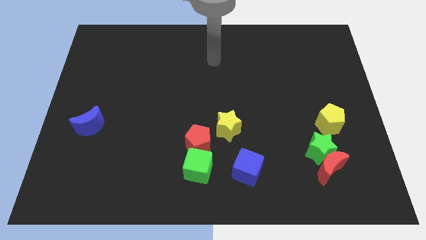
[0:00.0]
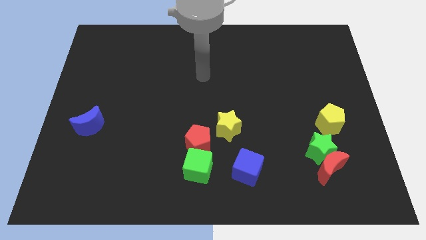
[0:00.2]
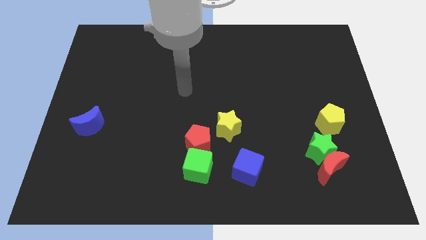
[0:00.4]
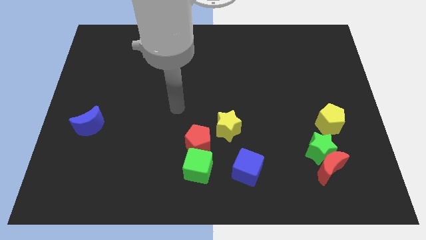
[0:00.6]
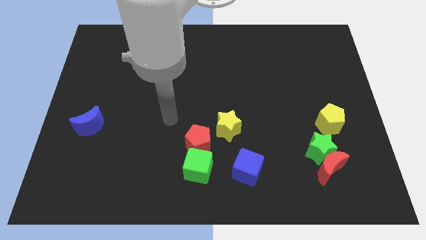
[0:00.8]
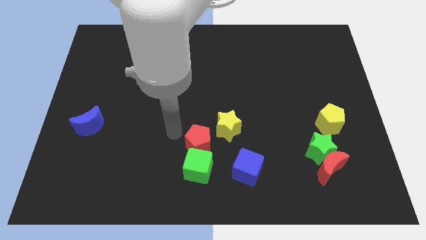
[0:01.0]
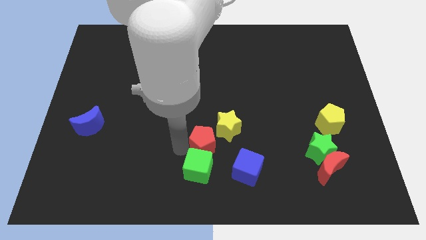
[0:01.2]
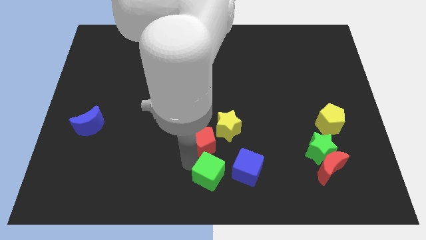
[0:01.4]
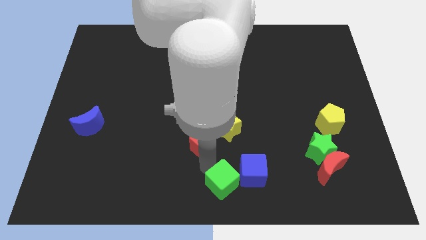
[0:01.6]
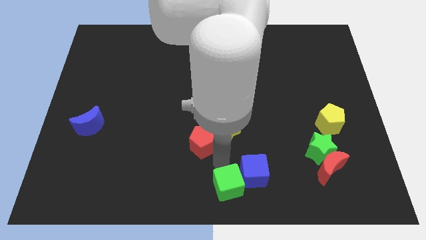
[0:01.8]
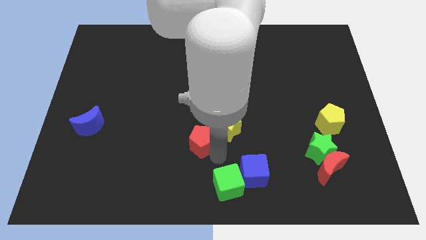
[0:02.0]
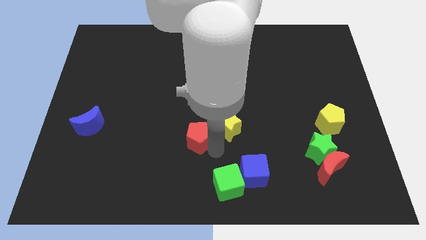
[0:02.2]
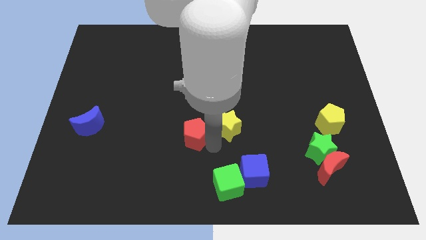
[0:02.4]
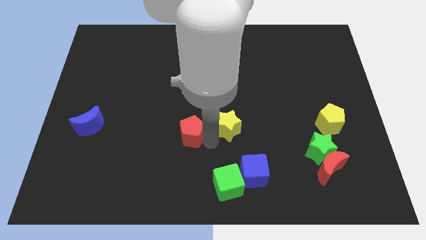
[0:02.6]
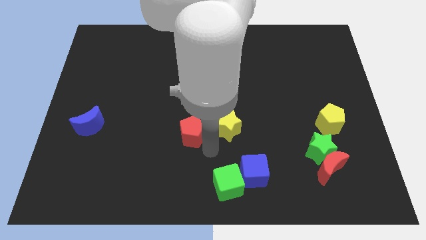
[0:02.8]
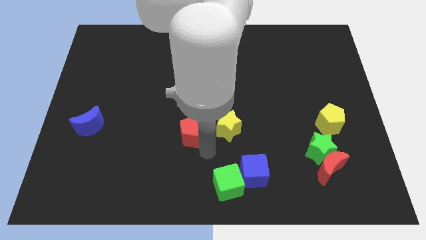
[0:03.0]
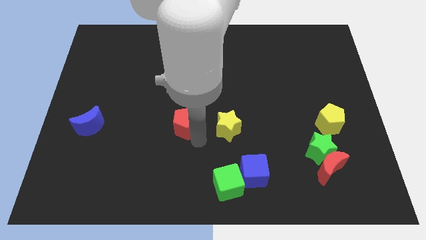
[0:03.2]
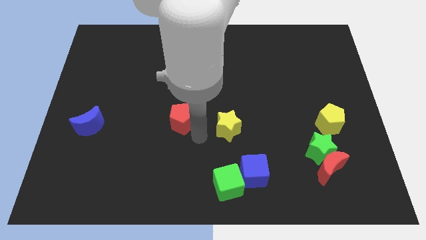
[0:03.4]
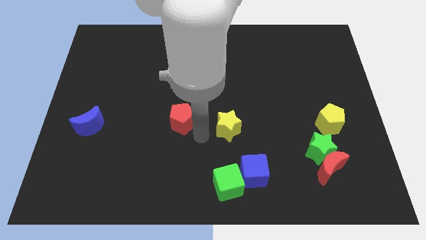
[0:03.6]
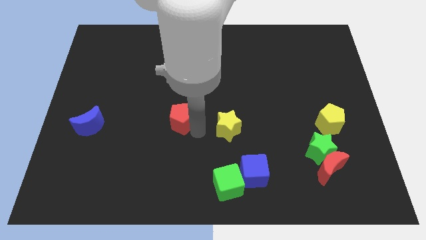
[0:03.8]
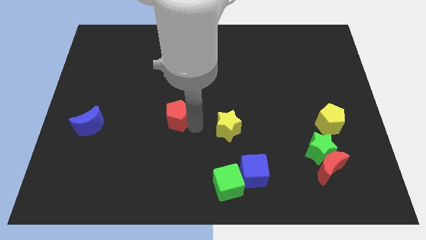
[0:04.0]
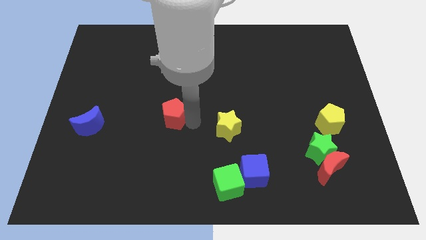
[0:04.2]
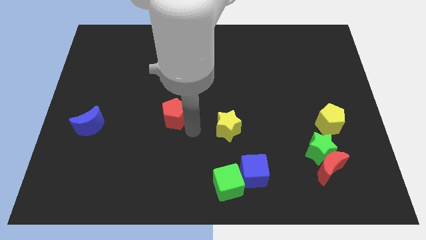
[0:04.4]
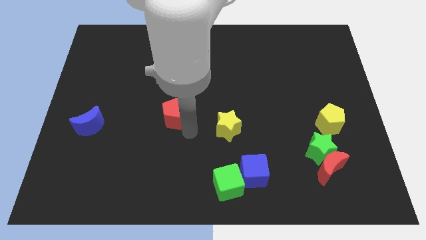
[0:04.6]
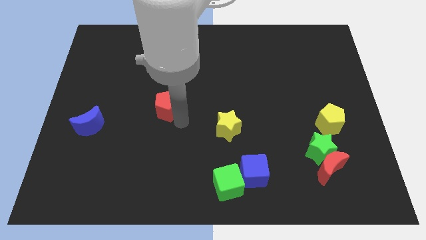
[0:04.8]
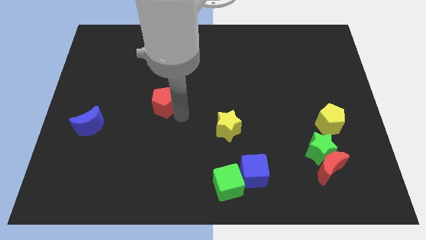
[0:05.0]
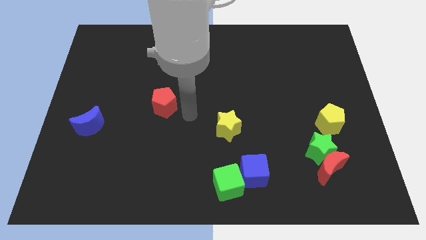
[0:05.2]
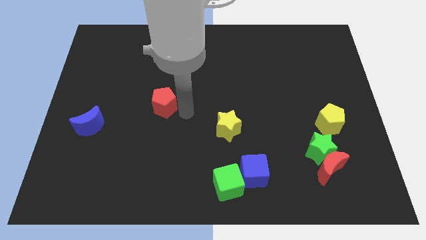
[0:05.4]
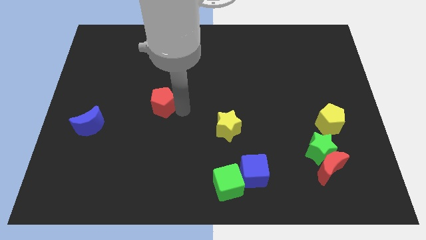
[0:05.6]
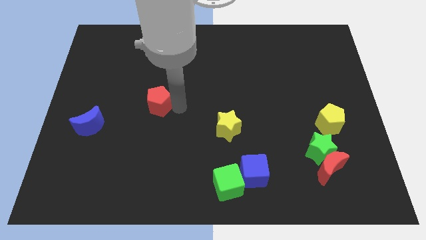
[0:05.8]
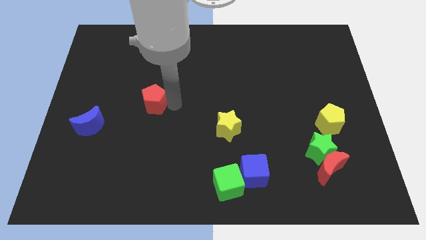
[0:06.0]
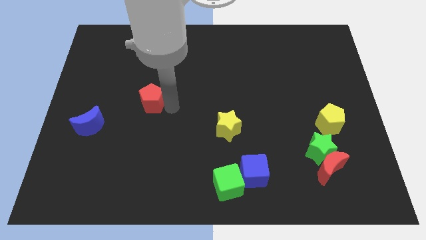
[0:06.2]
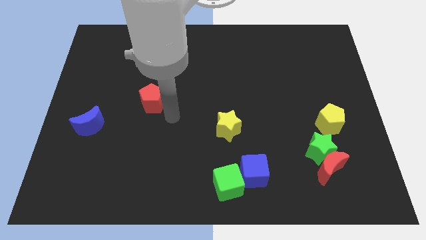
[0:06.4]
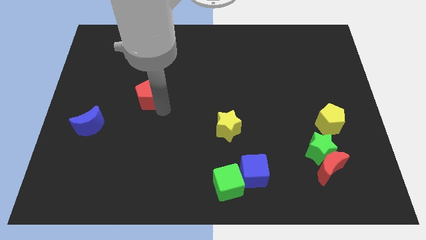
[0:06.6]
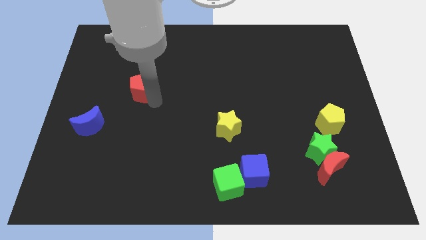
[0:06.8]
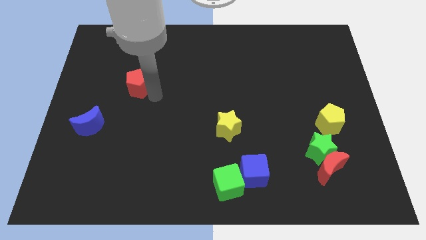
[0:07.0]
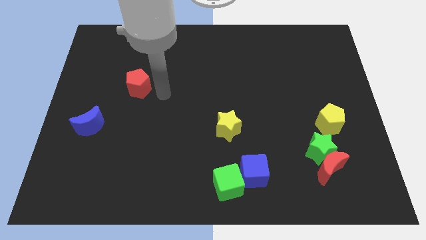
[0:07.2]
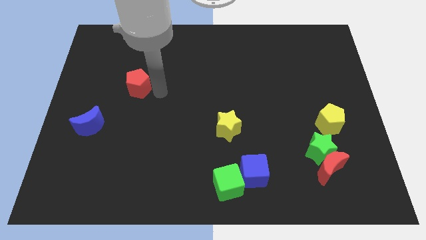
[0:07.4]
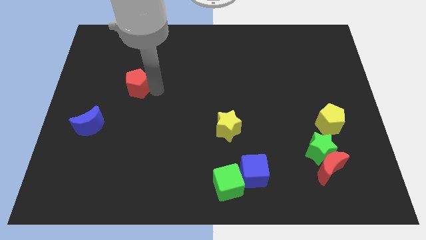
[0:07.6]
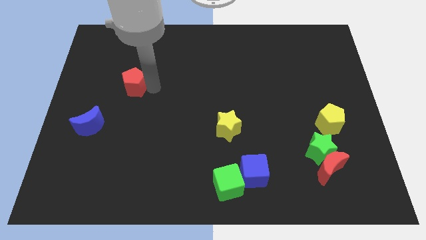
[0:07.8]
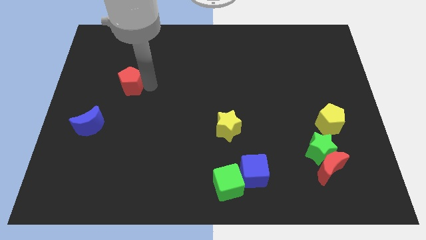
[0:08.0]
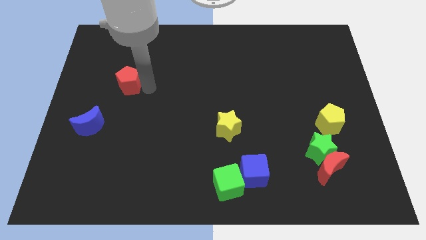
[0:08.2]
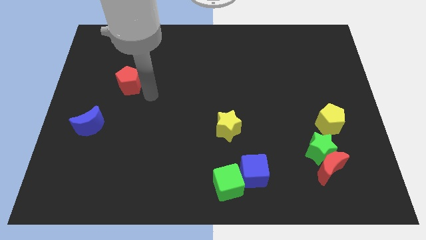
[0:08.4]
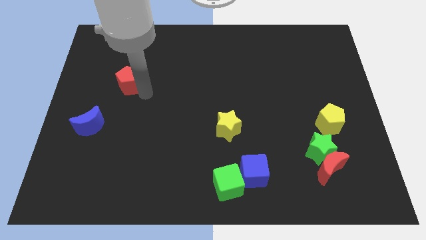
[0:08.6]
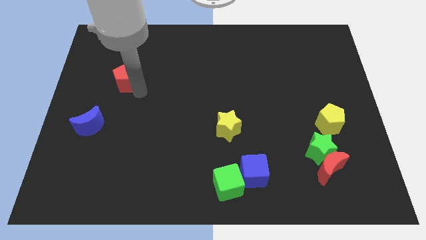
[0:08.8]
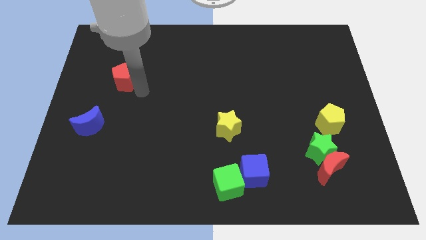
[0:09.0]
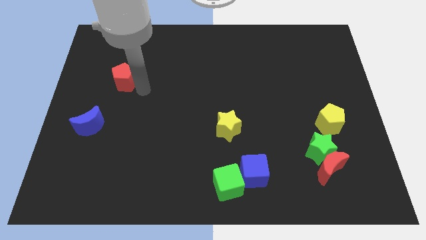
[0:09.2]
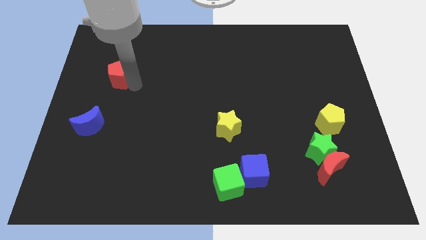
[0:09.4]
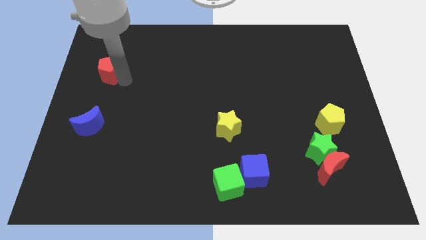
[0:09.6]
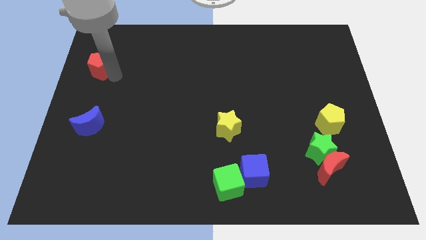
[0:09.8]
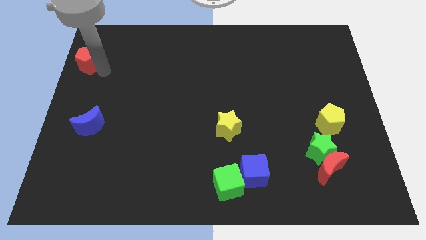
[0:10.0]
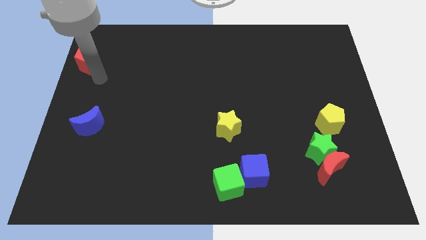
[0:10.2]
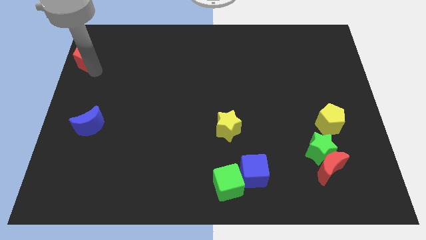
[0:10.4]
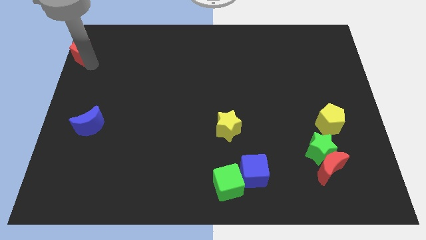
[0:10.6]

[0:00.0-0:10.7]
put the red pentagon to the top left

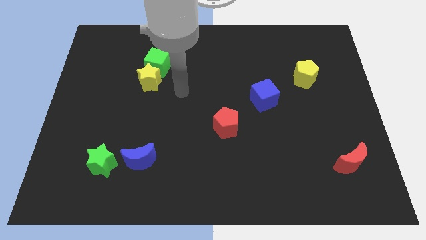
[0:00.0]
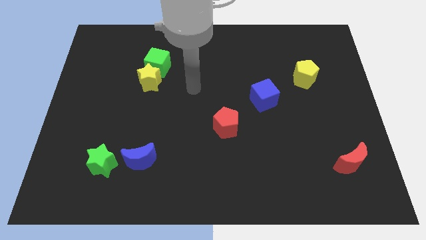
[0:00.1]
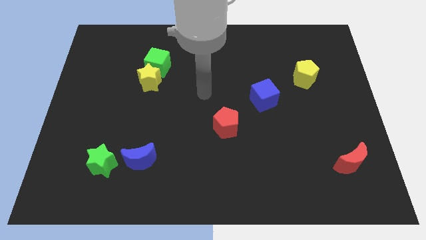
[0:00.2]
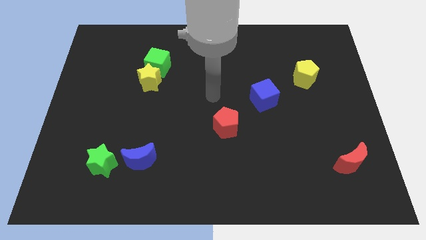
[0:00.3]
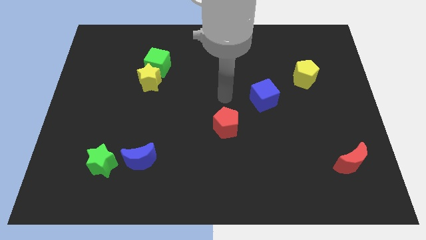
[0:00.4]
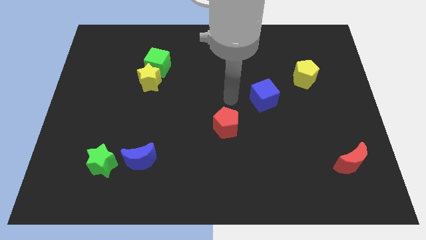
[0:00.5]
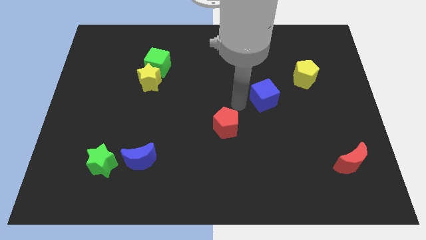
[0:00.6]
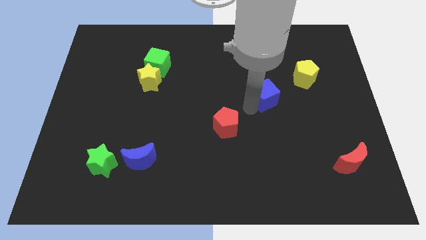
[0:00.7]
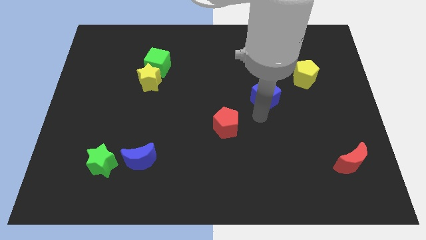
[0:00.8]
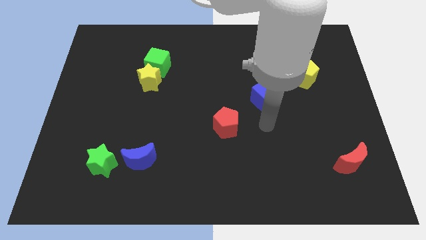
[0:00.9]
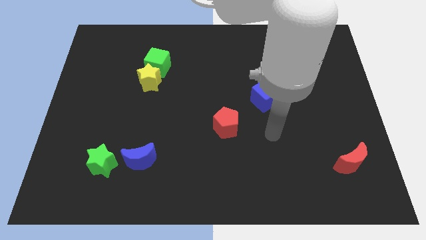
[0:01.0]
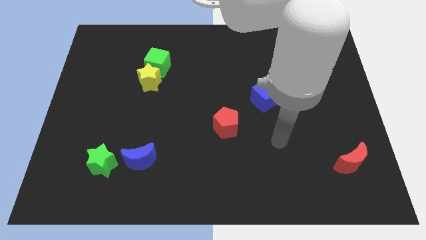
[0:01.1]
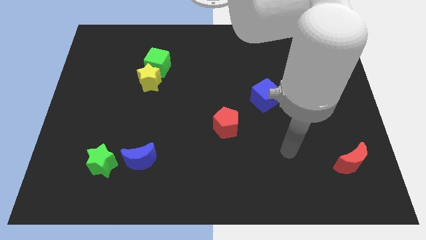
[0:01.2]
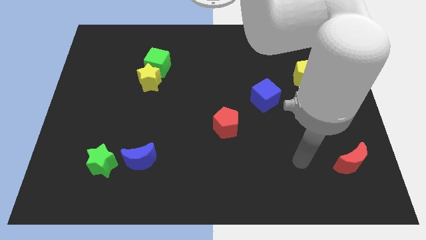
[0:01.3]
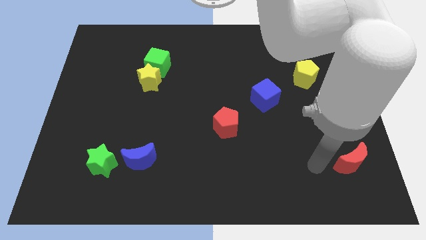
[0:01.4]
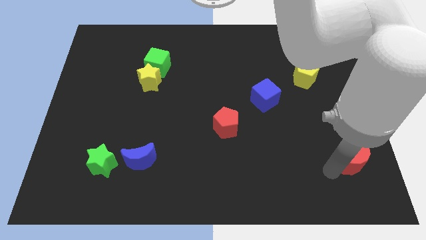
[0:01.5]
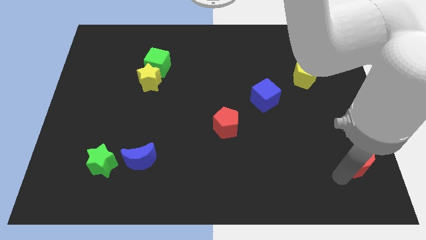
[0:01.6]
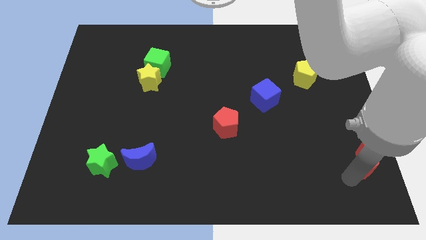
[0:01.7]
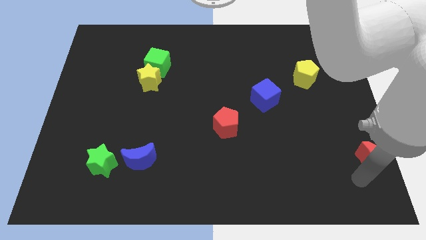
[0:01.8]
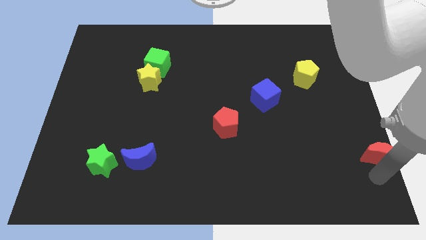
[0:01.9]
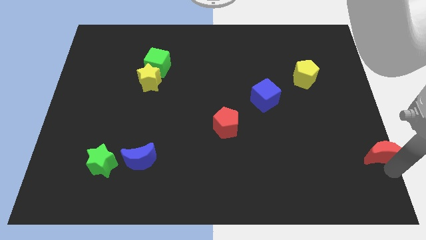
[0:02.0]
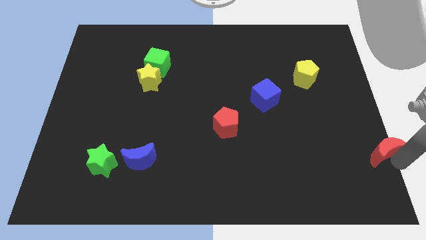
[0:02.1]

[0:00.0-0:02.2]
push the red moon to the right side
